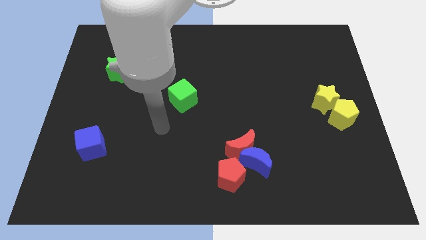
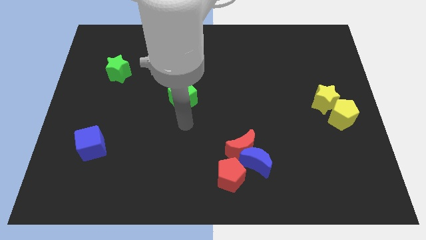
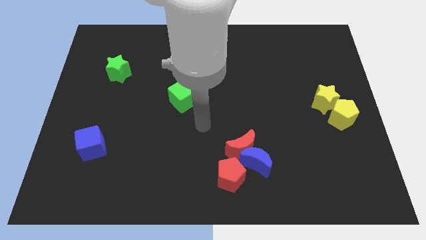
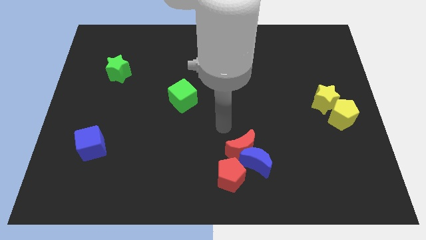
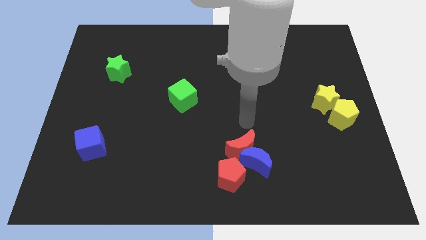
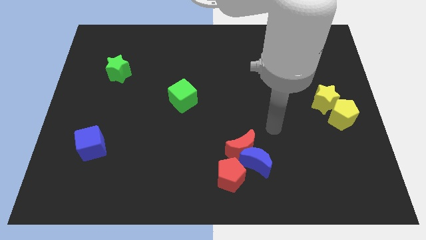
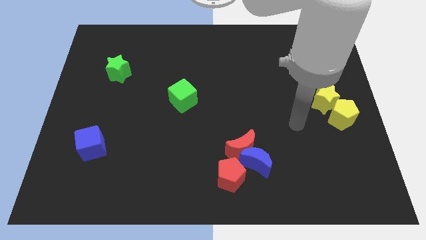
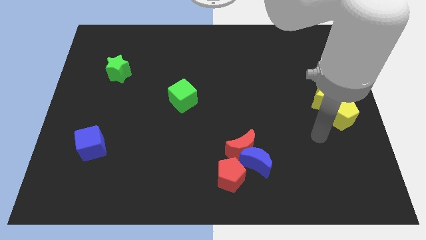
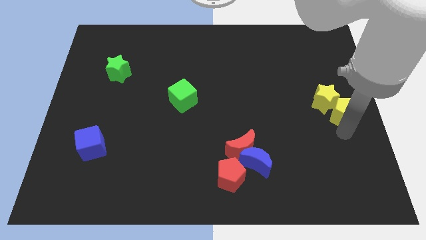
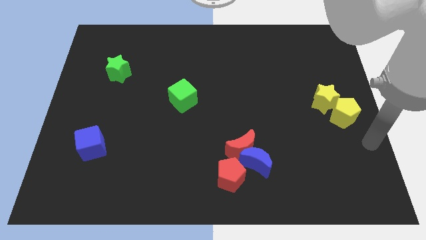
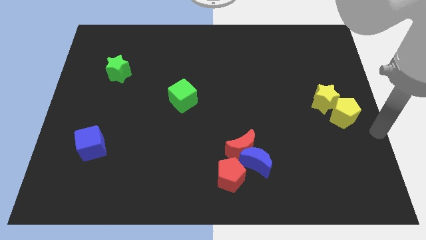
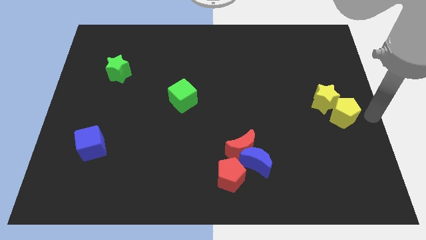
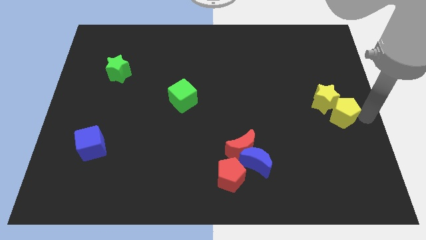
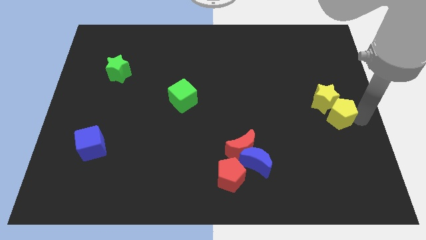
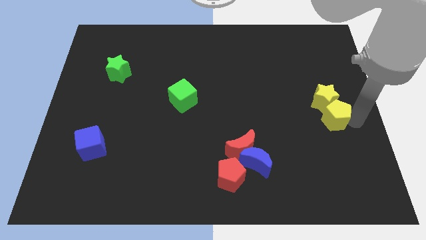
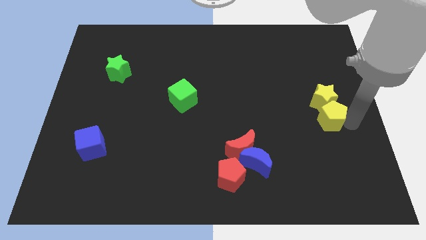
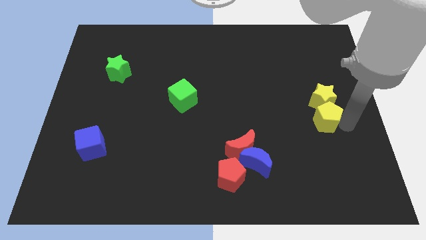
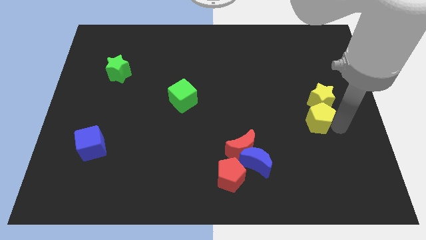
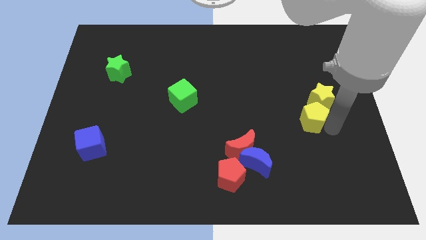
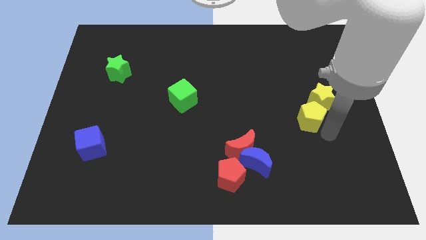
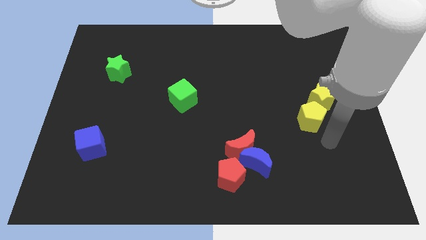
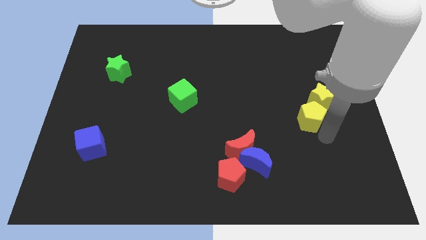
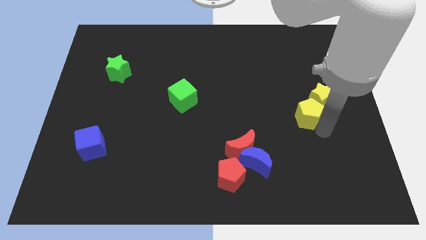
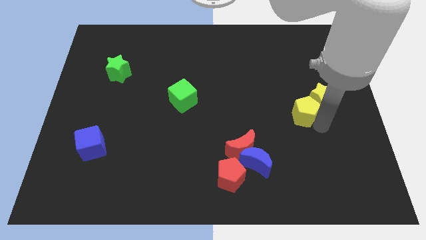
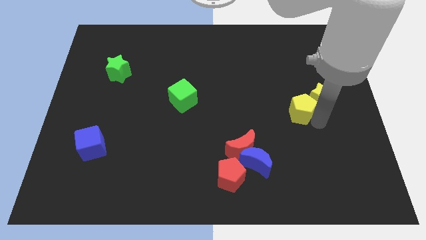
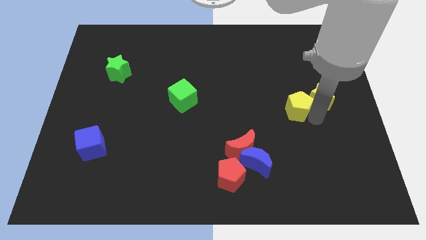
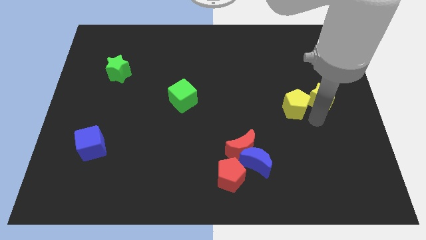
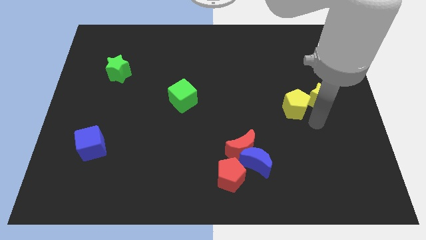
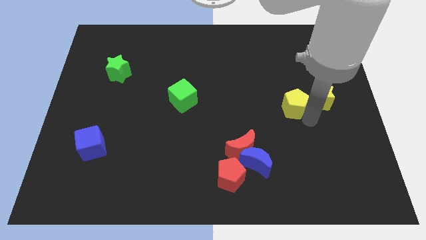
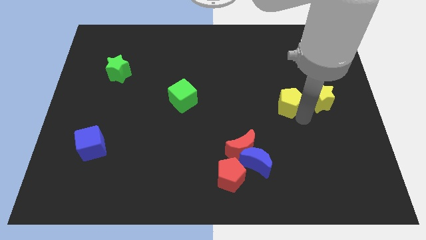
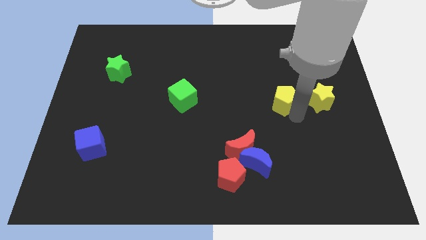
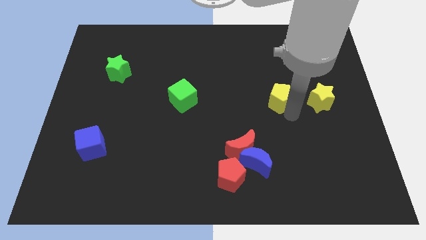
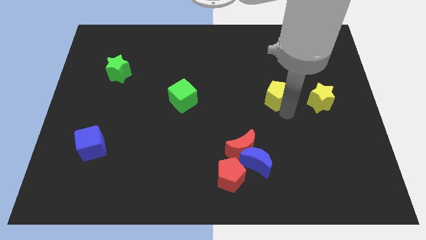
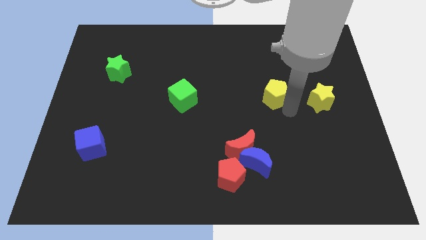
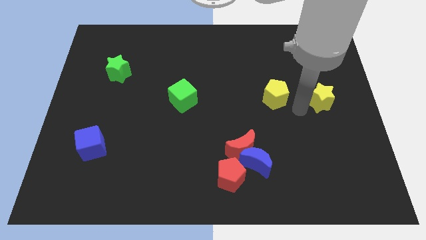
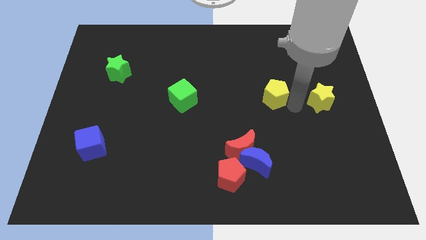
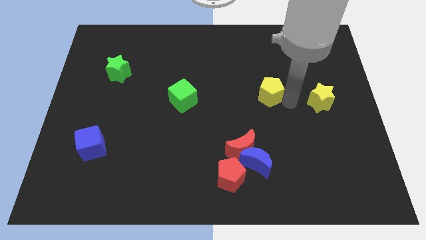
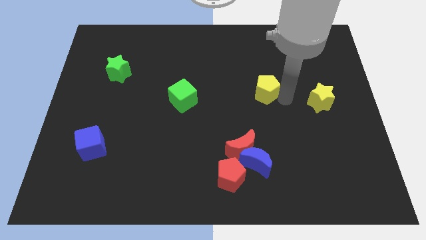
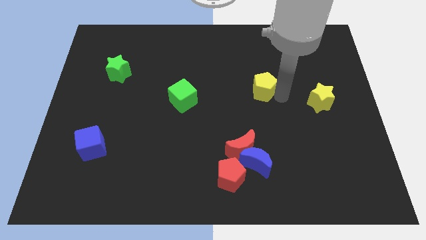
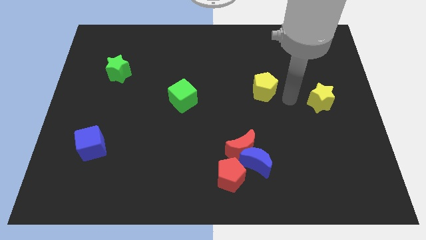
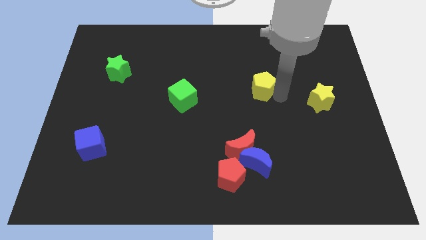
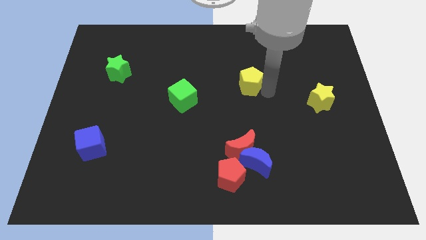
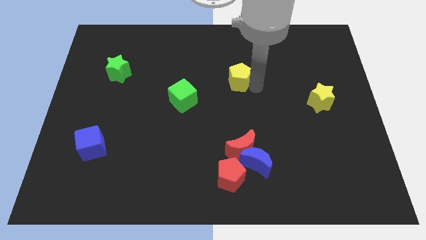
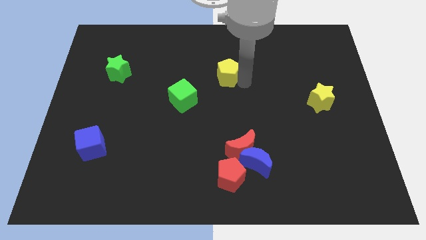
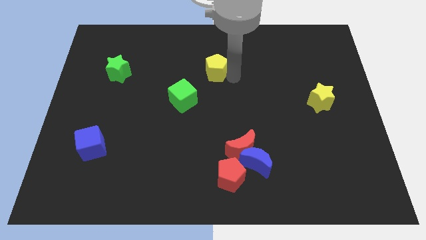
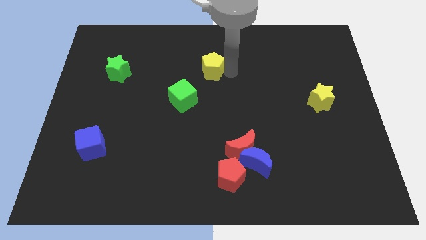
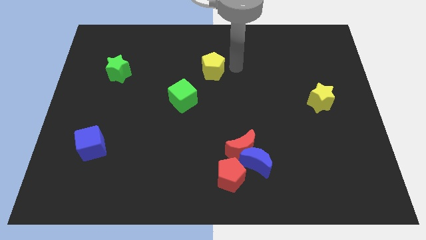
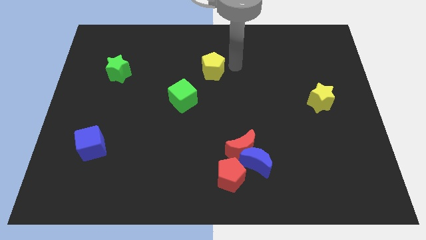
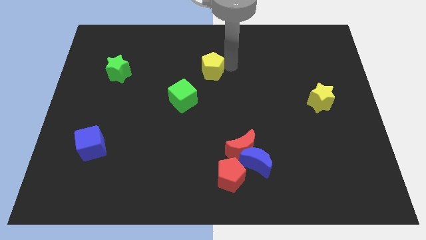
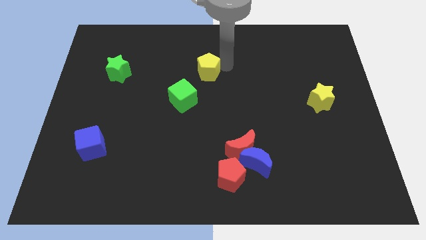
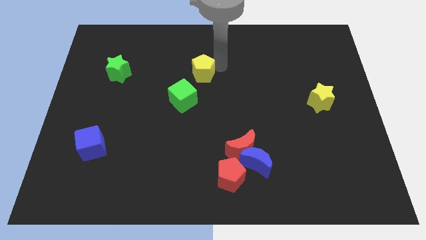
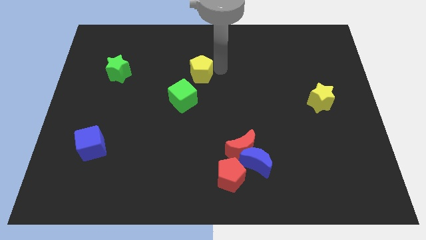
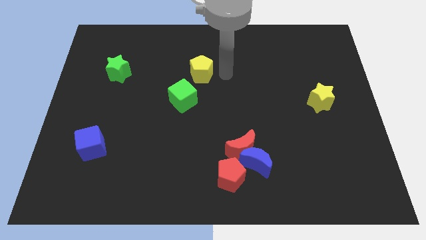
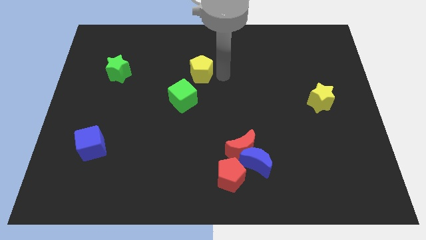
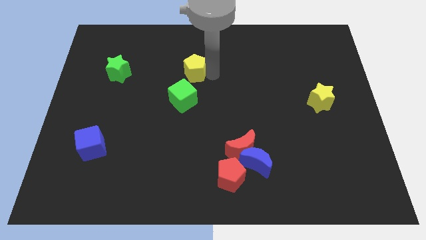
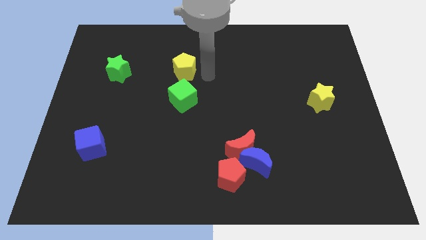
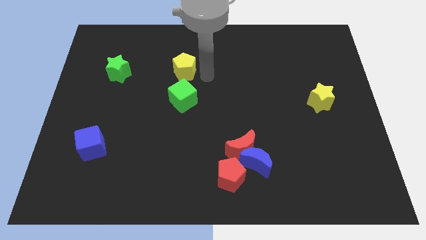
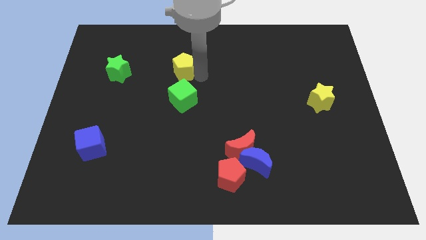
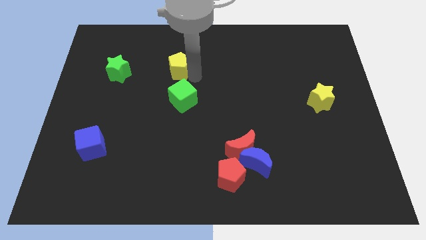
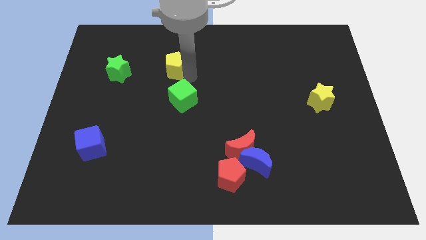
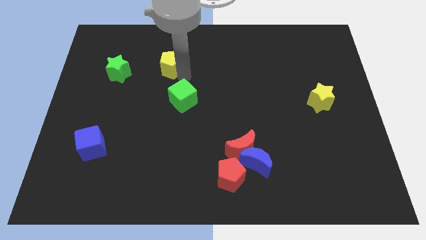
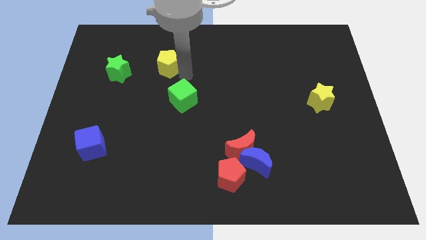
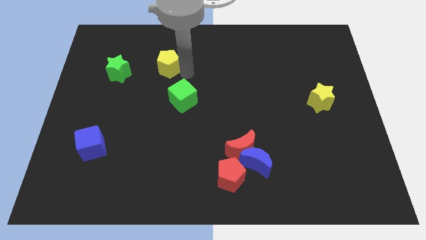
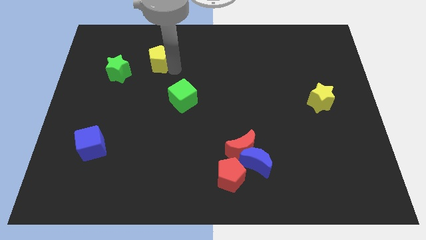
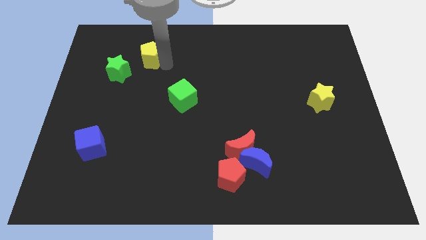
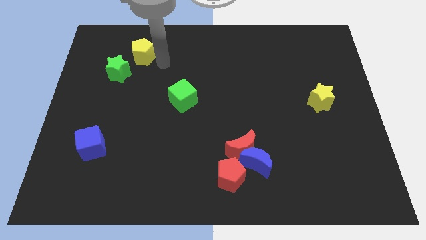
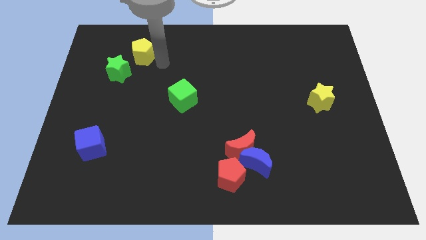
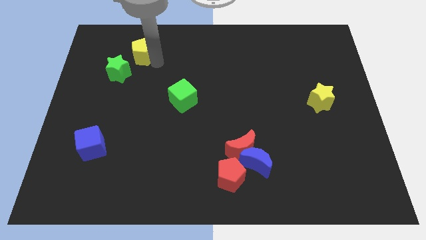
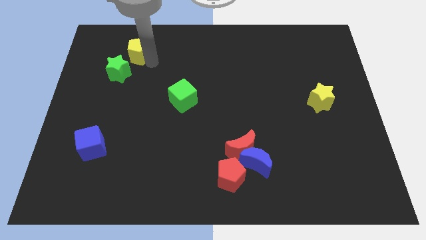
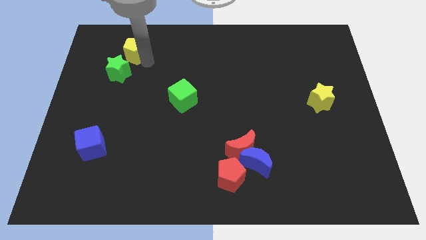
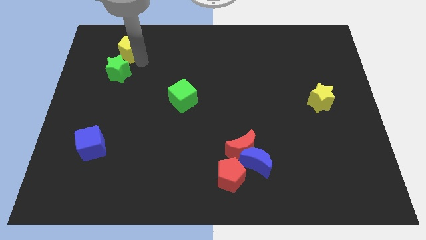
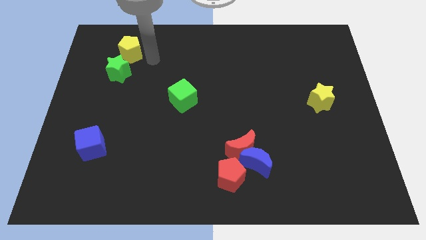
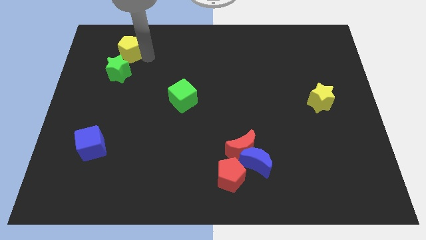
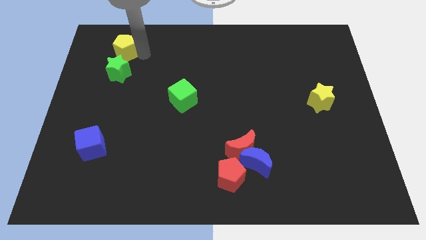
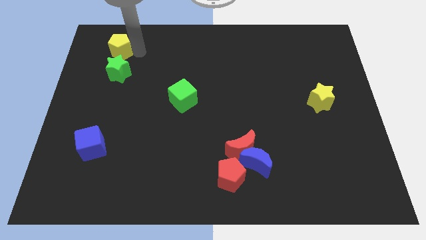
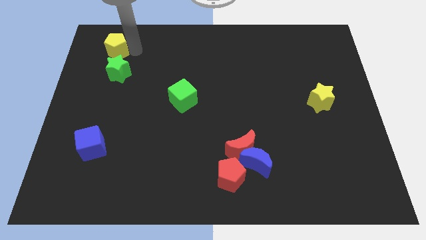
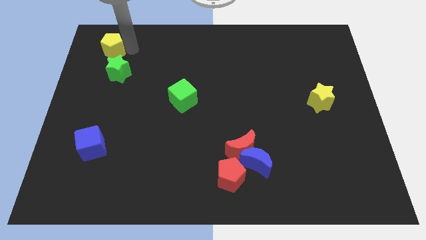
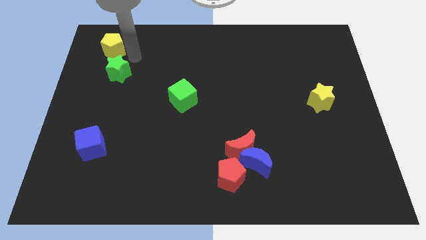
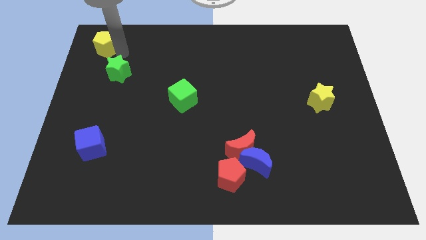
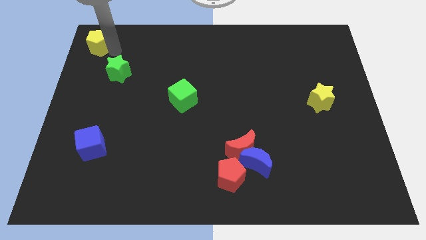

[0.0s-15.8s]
push the yellow pentagon to the upper left corner
